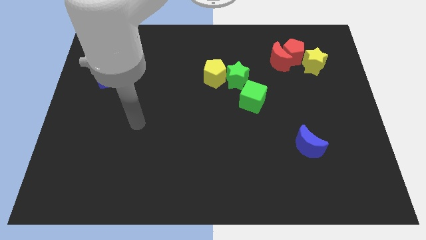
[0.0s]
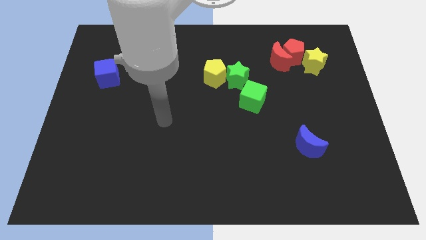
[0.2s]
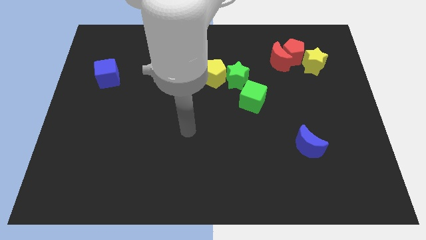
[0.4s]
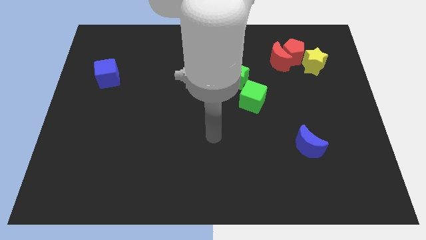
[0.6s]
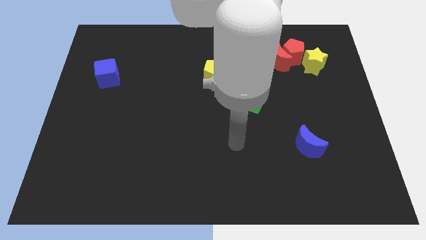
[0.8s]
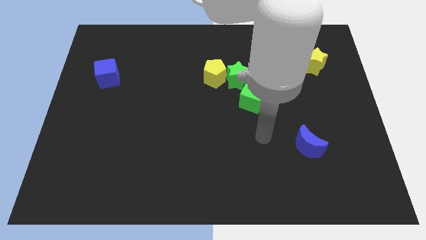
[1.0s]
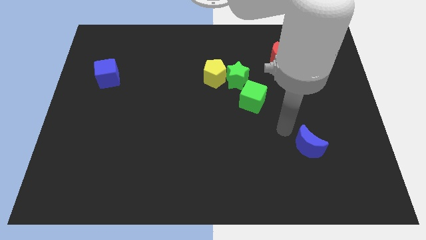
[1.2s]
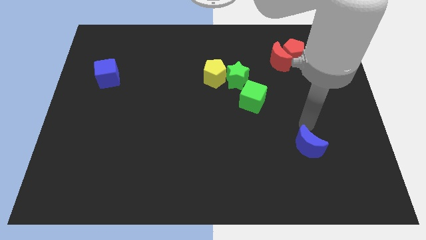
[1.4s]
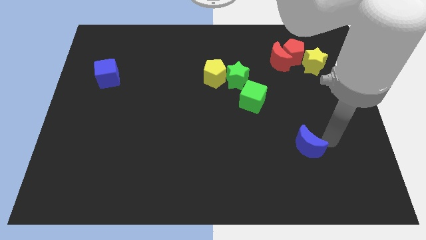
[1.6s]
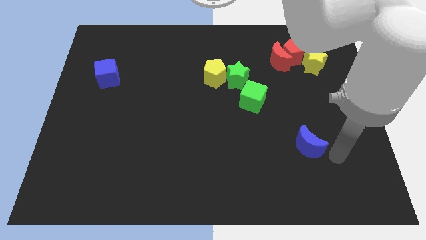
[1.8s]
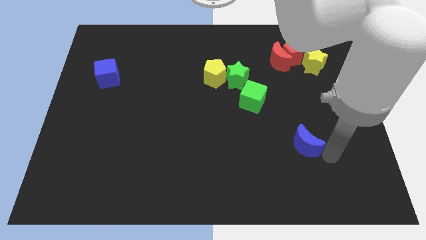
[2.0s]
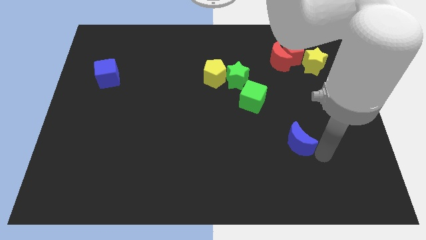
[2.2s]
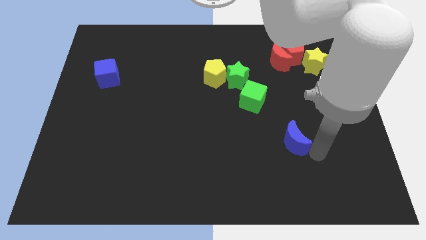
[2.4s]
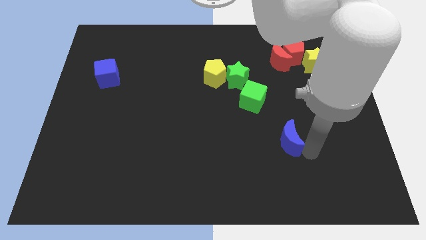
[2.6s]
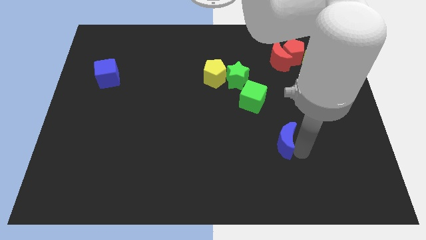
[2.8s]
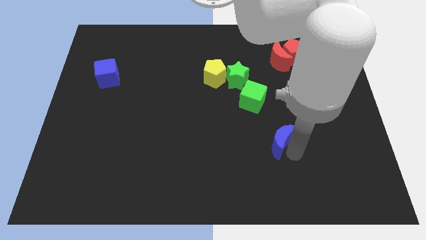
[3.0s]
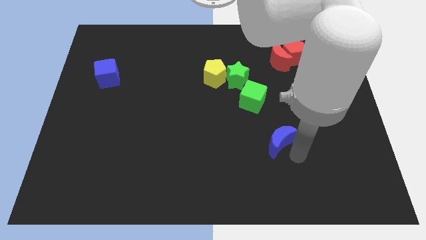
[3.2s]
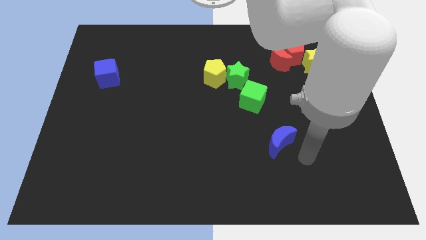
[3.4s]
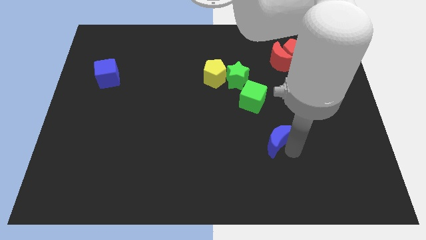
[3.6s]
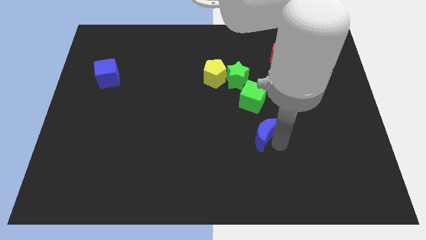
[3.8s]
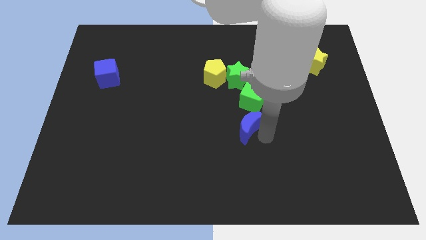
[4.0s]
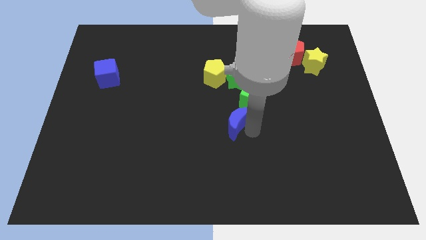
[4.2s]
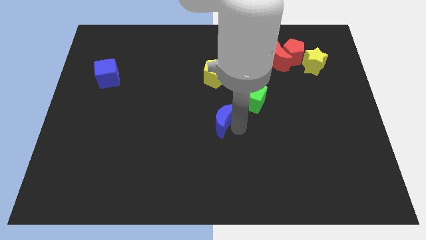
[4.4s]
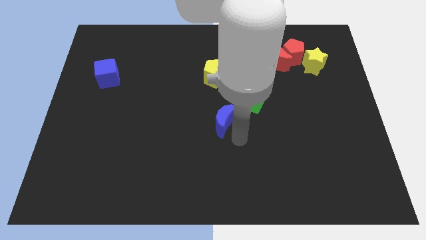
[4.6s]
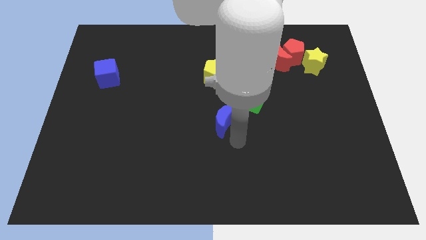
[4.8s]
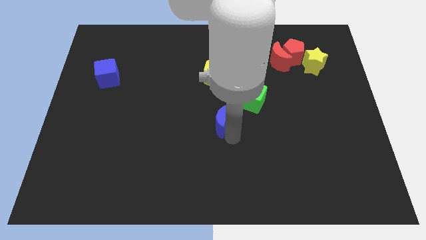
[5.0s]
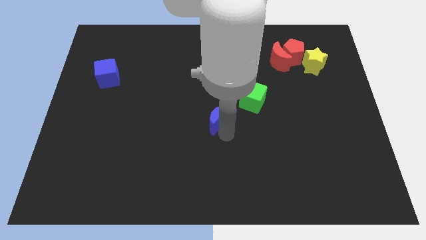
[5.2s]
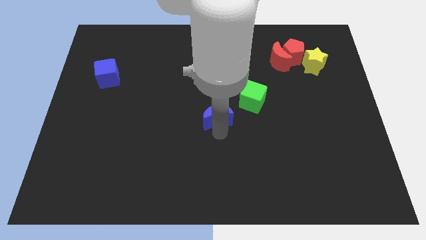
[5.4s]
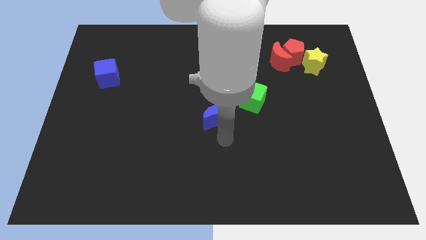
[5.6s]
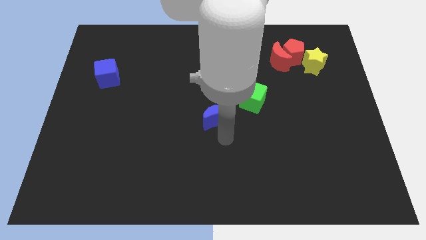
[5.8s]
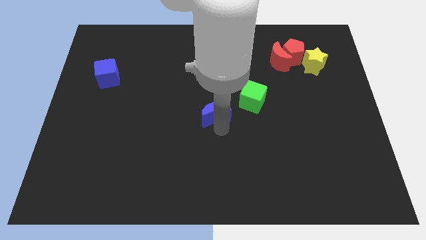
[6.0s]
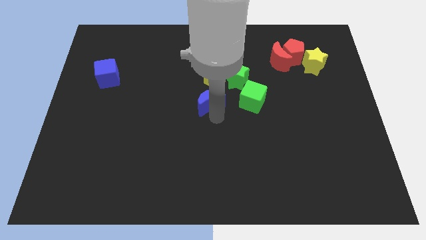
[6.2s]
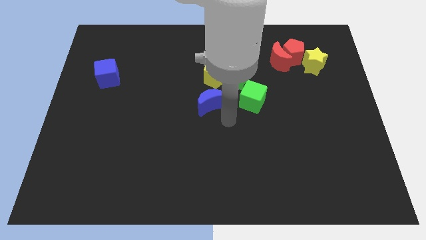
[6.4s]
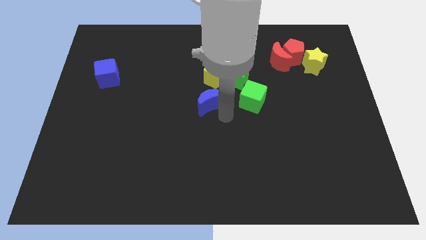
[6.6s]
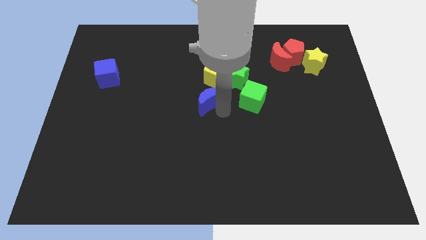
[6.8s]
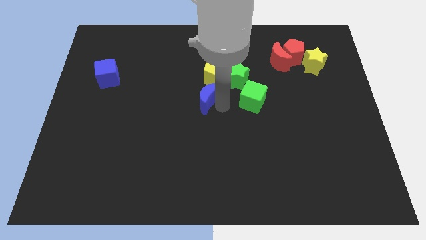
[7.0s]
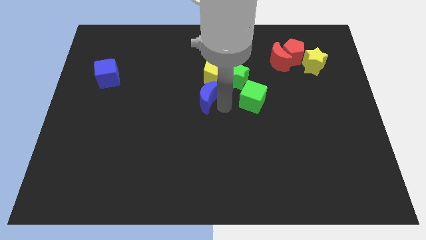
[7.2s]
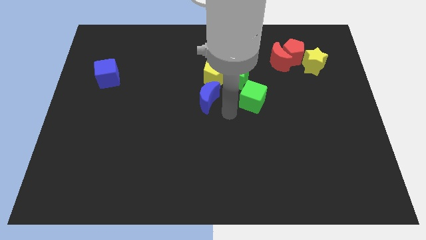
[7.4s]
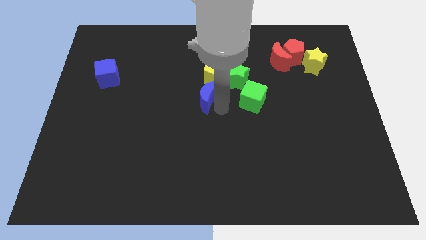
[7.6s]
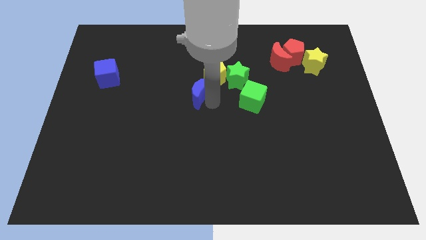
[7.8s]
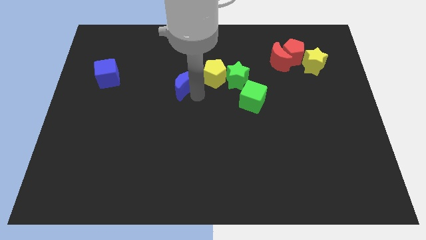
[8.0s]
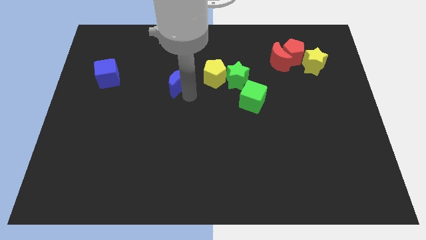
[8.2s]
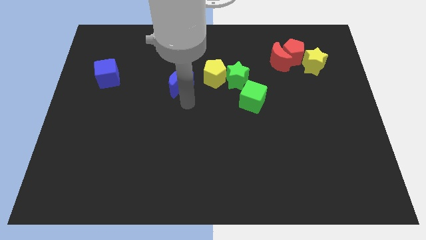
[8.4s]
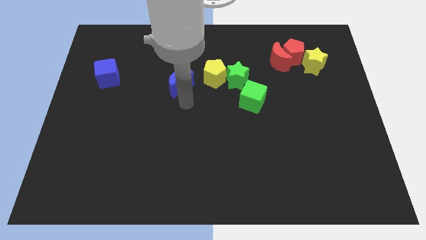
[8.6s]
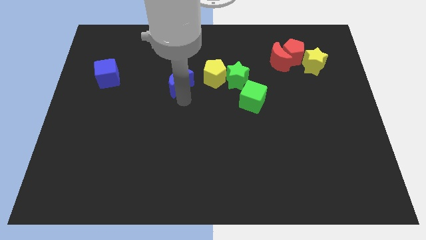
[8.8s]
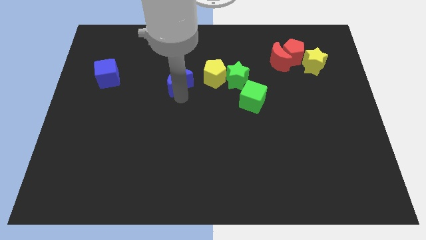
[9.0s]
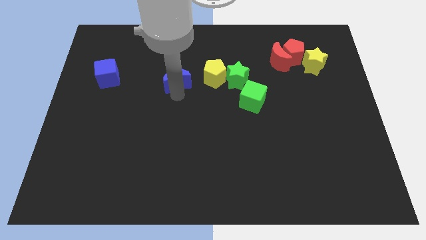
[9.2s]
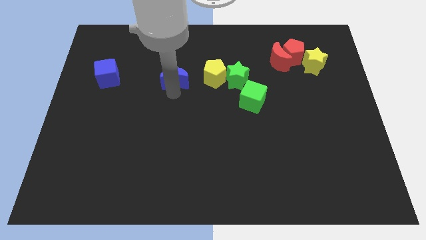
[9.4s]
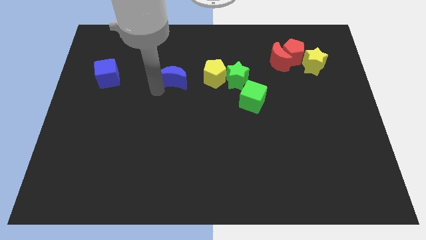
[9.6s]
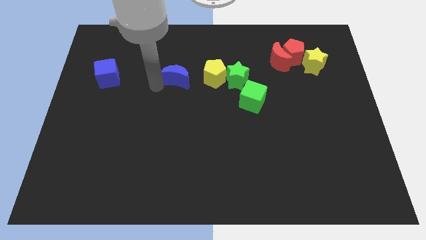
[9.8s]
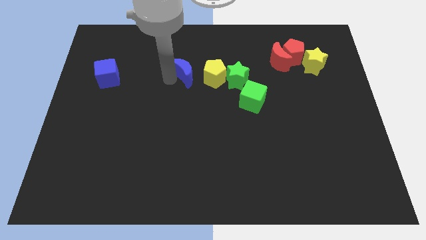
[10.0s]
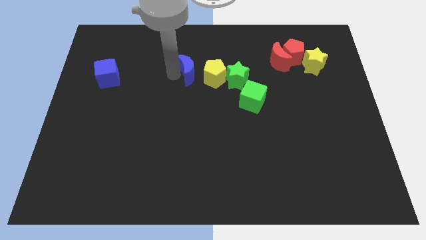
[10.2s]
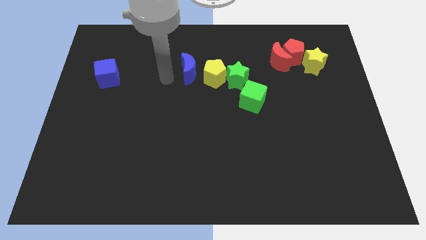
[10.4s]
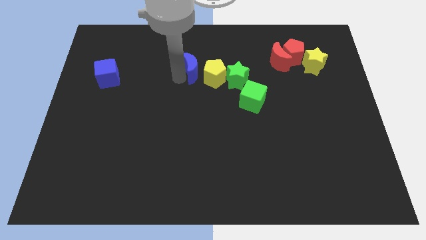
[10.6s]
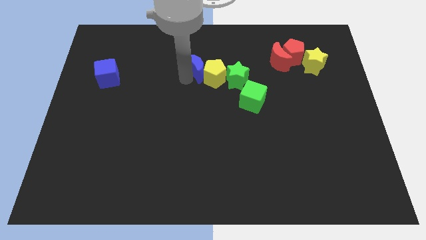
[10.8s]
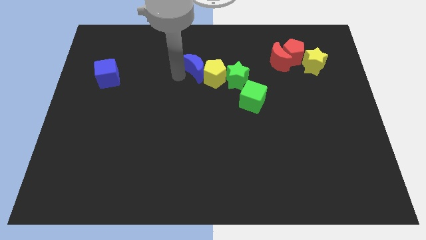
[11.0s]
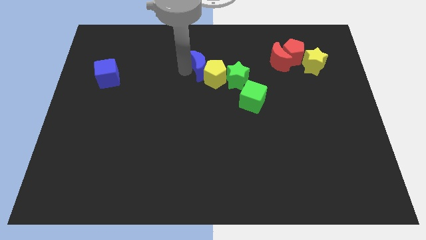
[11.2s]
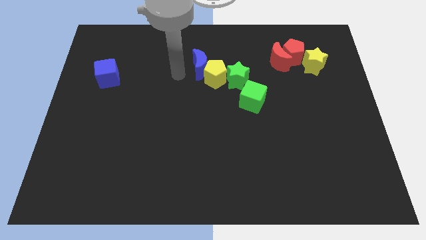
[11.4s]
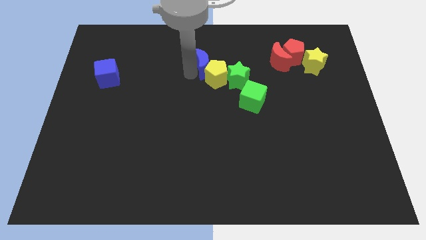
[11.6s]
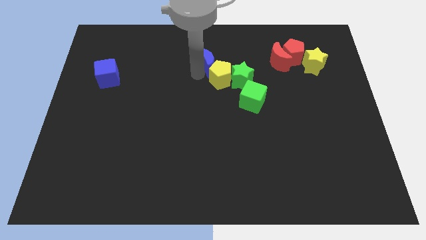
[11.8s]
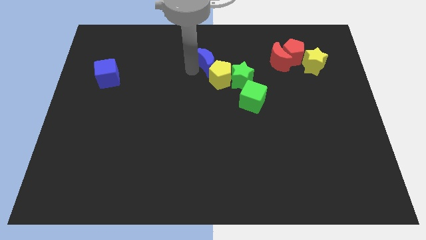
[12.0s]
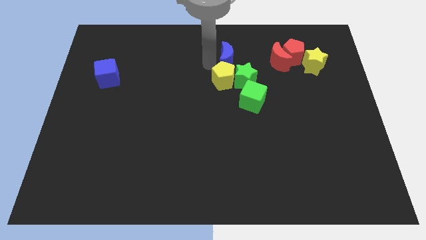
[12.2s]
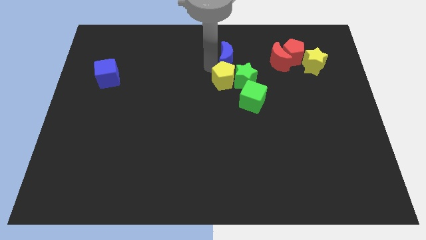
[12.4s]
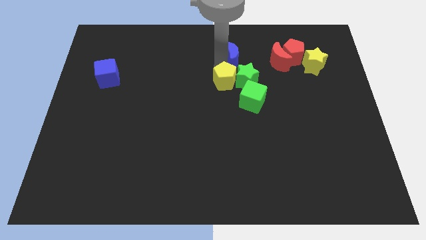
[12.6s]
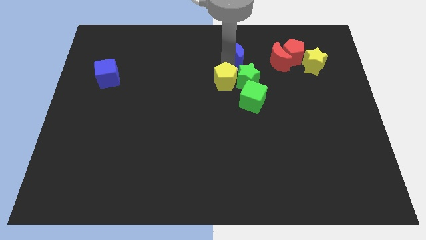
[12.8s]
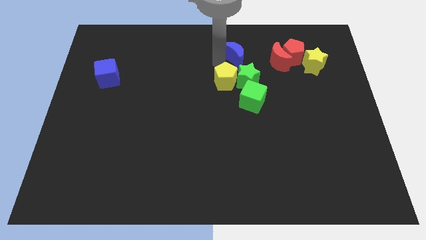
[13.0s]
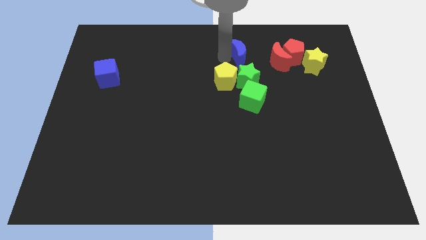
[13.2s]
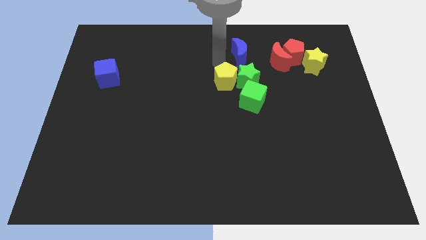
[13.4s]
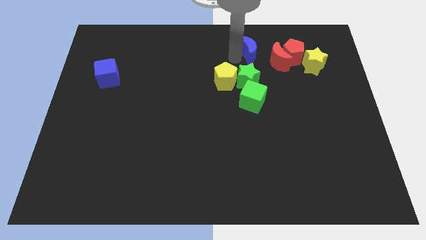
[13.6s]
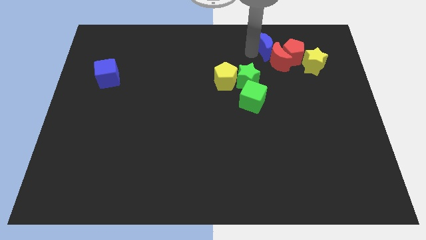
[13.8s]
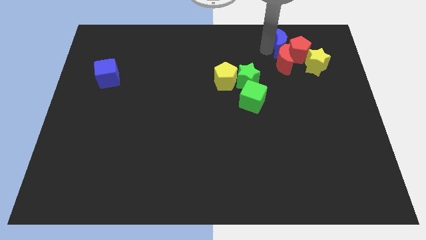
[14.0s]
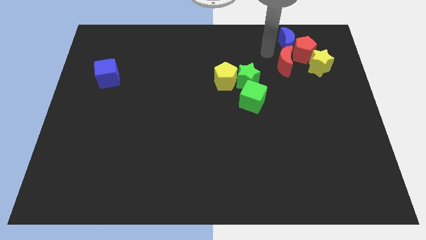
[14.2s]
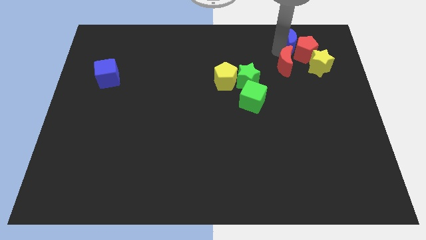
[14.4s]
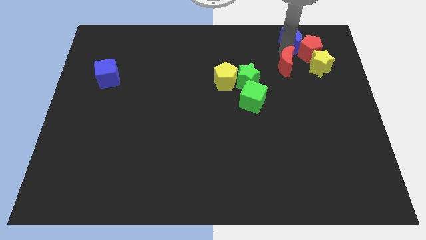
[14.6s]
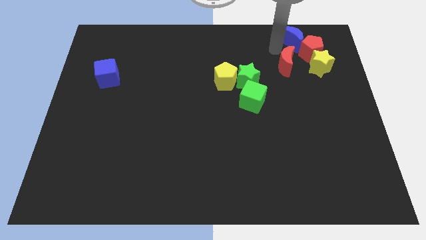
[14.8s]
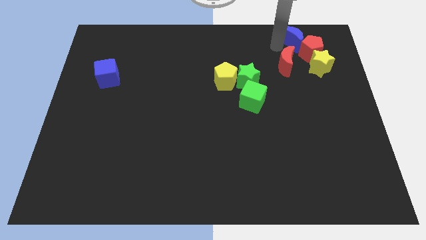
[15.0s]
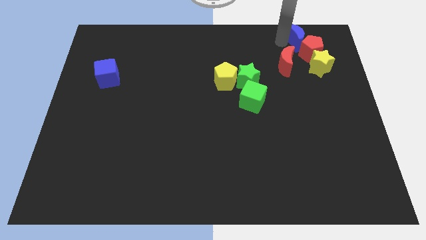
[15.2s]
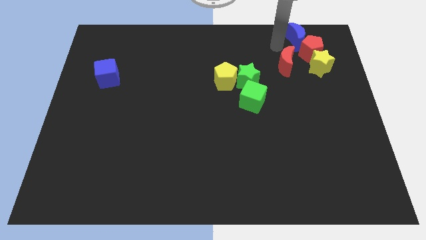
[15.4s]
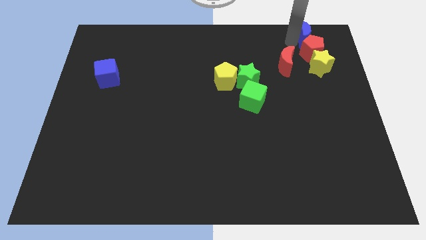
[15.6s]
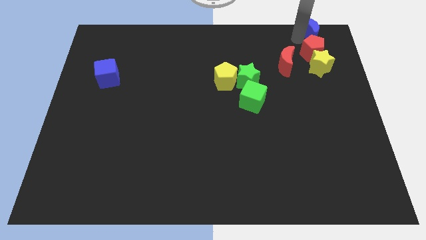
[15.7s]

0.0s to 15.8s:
push the blue moon to the top right corner
